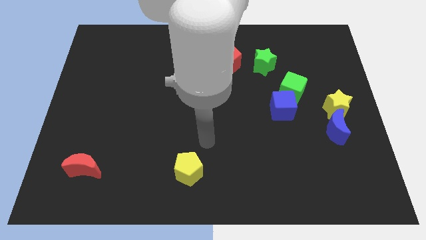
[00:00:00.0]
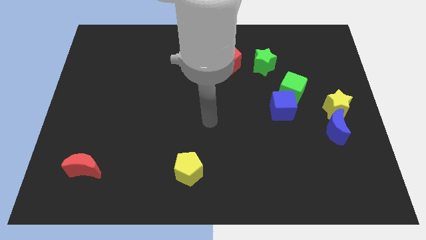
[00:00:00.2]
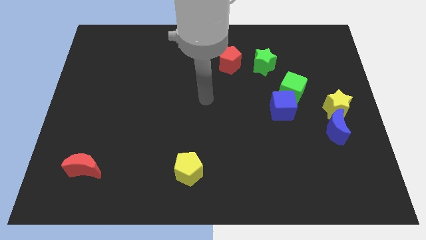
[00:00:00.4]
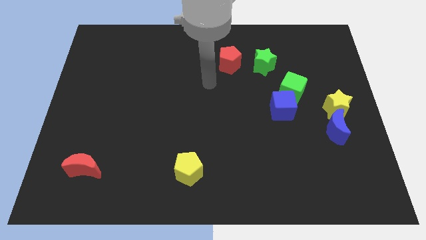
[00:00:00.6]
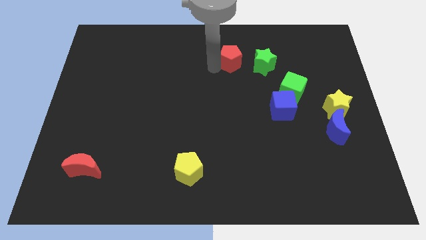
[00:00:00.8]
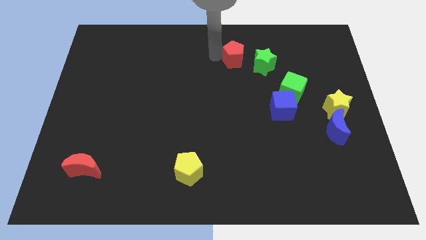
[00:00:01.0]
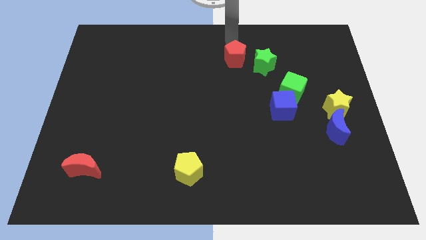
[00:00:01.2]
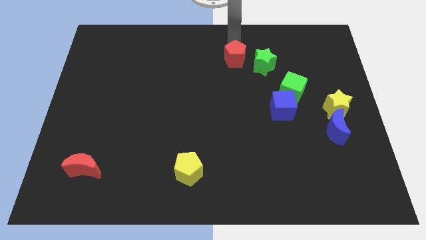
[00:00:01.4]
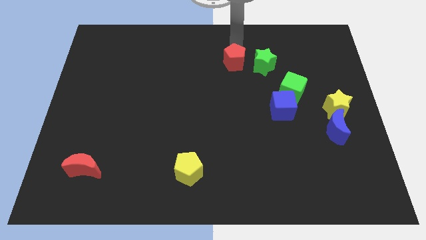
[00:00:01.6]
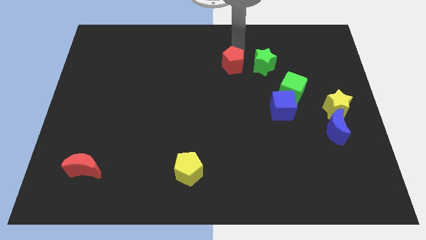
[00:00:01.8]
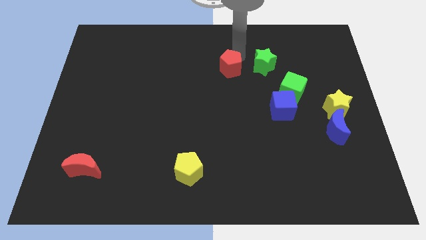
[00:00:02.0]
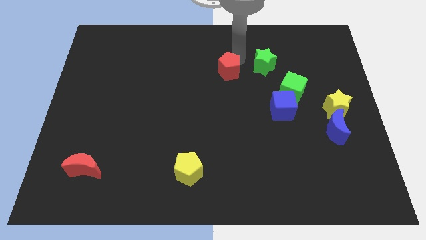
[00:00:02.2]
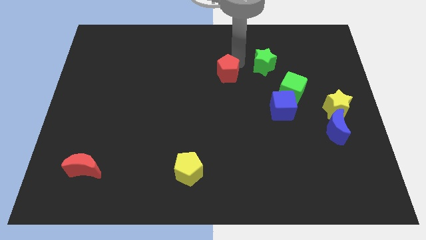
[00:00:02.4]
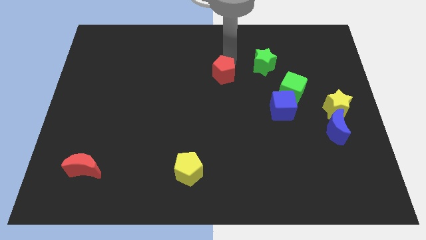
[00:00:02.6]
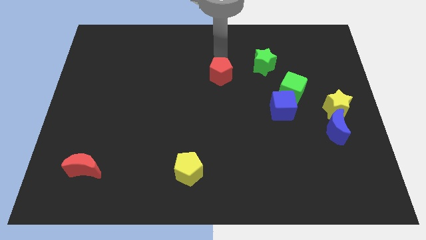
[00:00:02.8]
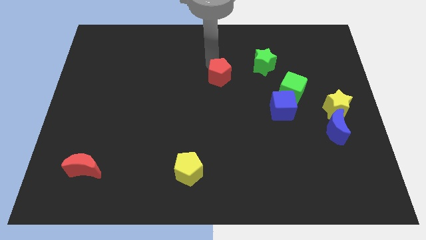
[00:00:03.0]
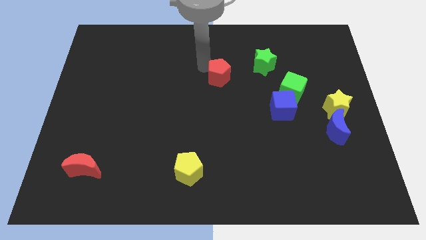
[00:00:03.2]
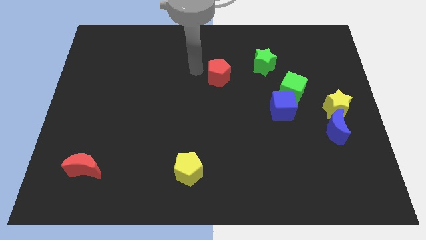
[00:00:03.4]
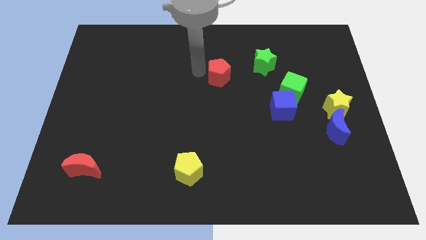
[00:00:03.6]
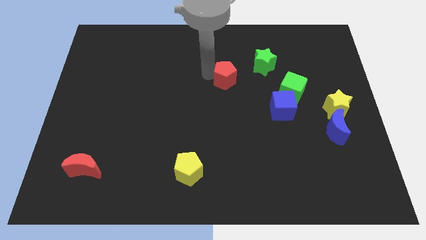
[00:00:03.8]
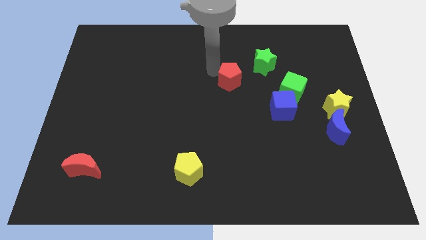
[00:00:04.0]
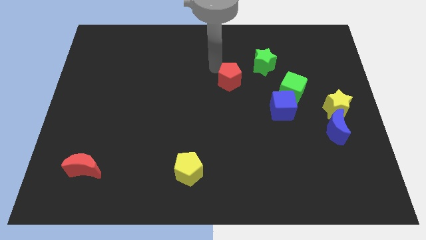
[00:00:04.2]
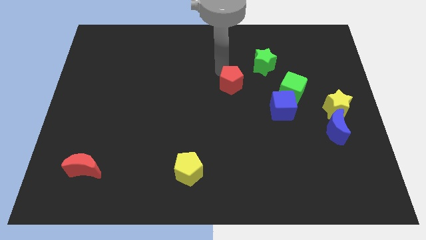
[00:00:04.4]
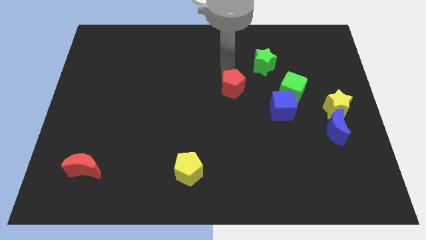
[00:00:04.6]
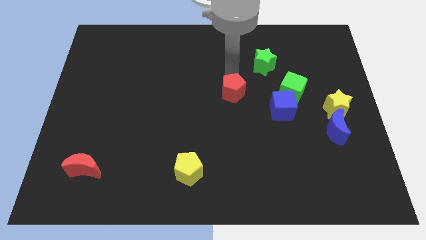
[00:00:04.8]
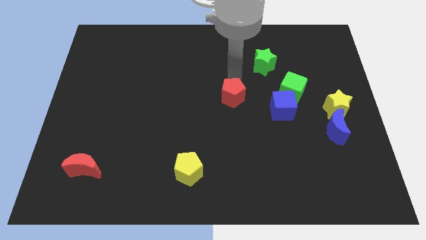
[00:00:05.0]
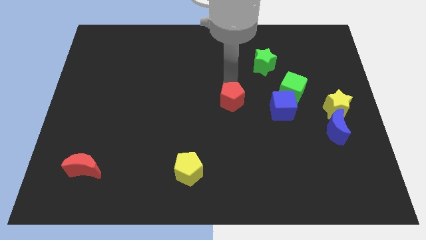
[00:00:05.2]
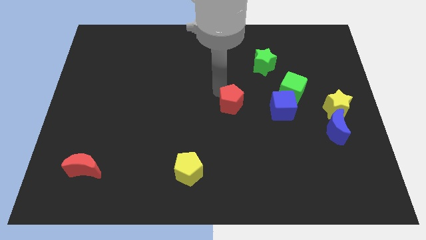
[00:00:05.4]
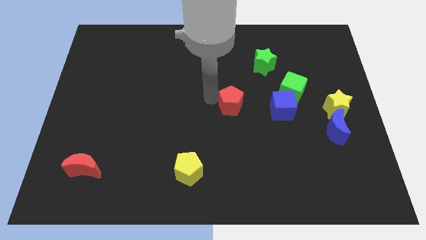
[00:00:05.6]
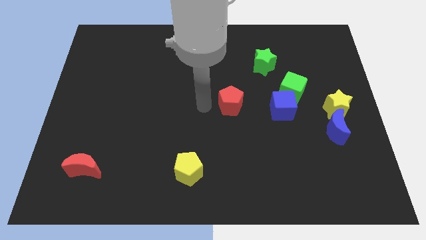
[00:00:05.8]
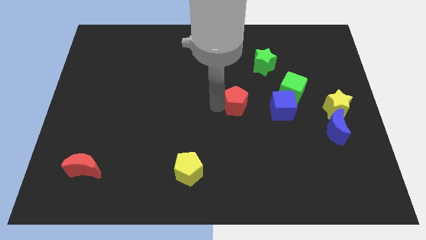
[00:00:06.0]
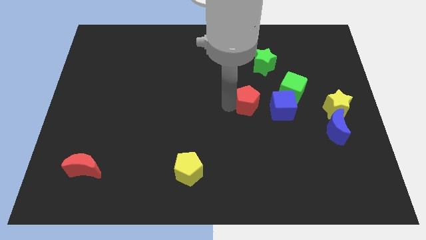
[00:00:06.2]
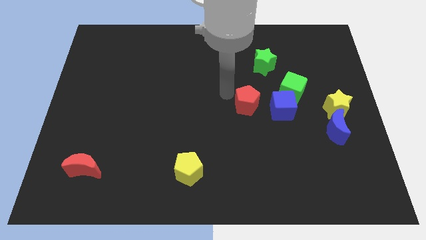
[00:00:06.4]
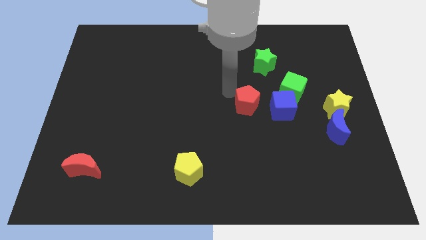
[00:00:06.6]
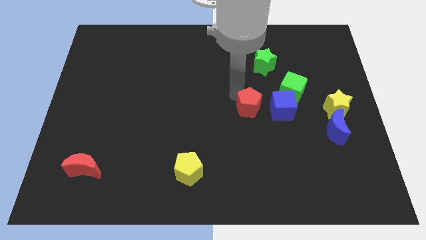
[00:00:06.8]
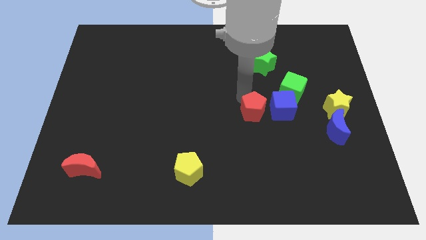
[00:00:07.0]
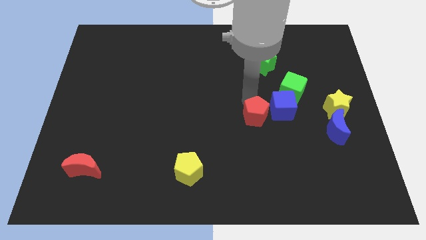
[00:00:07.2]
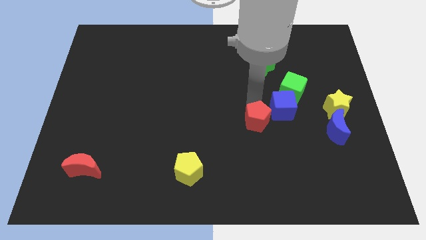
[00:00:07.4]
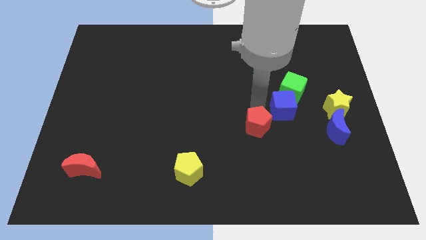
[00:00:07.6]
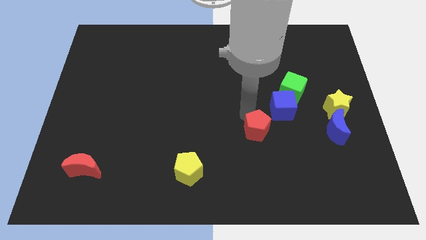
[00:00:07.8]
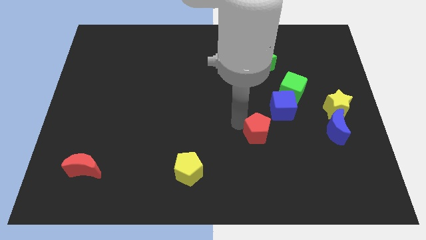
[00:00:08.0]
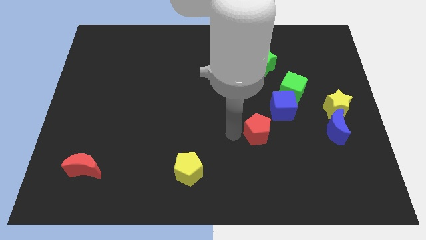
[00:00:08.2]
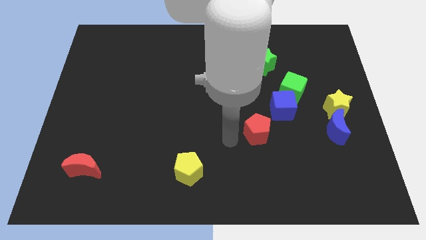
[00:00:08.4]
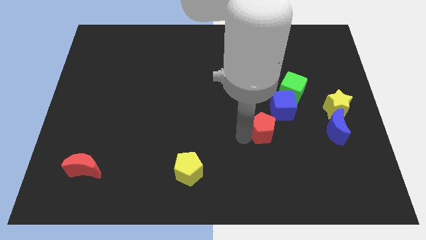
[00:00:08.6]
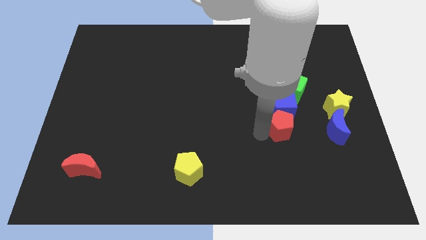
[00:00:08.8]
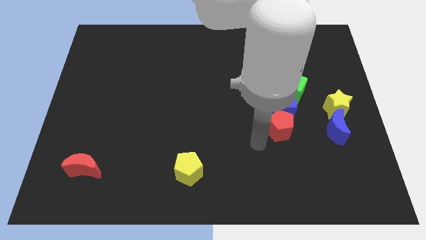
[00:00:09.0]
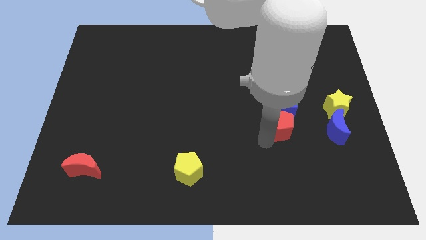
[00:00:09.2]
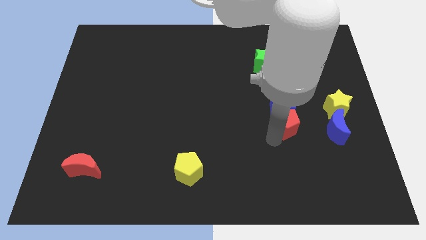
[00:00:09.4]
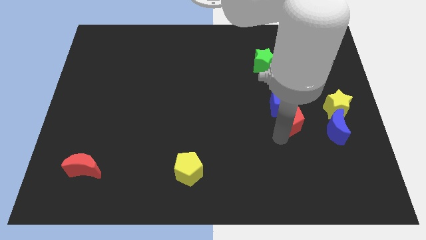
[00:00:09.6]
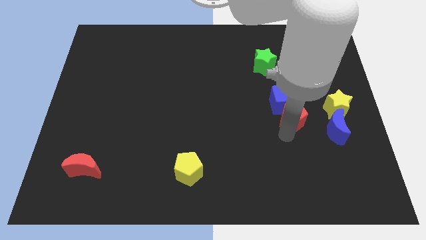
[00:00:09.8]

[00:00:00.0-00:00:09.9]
move the red pentagon diagonally up and to the left of the blue moon
